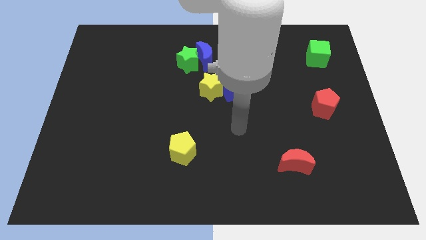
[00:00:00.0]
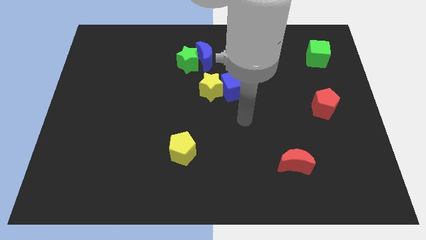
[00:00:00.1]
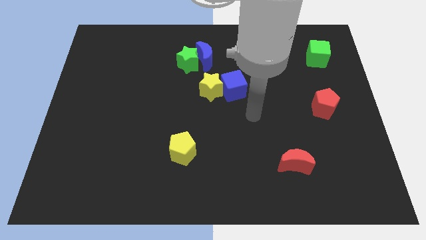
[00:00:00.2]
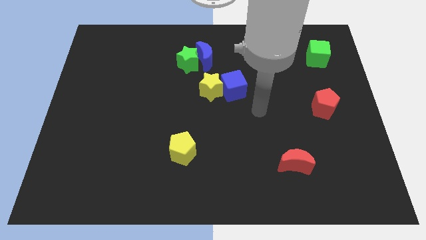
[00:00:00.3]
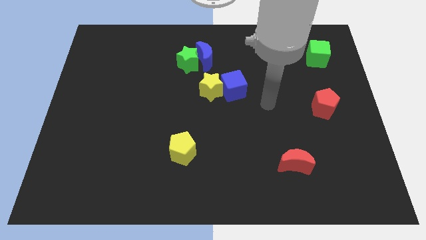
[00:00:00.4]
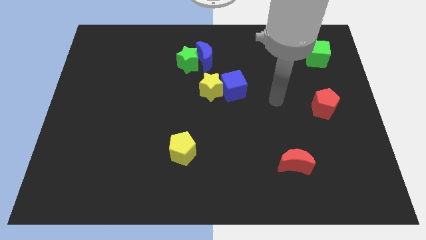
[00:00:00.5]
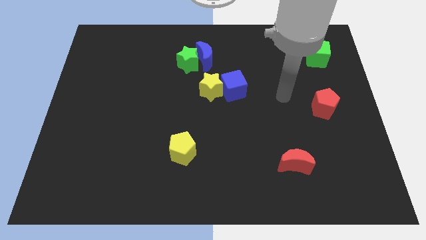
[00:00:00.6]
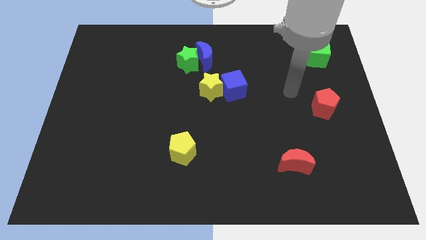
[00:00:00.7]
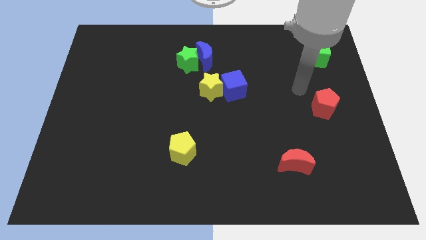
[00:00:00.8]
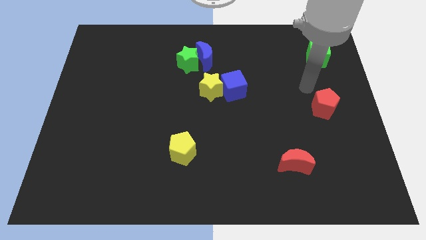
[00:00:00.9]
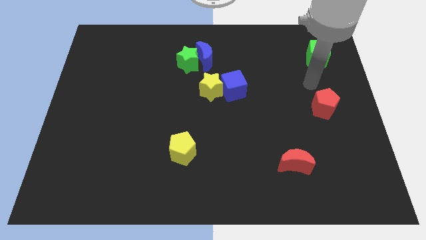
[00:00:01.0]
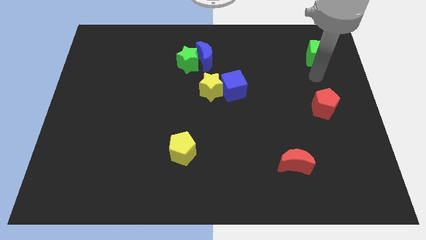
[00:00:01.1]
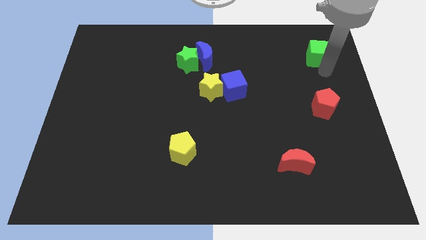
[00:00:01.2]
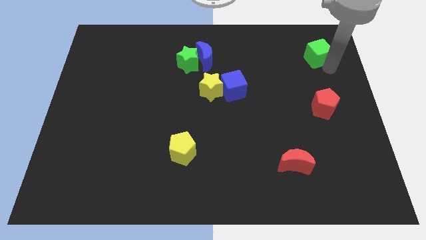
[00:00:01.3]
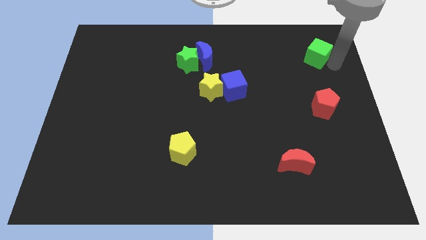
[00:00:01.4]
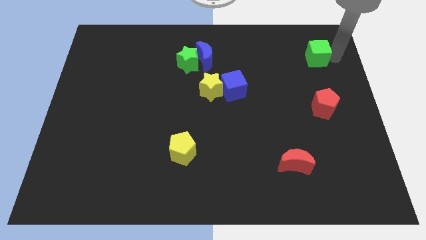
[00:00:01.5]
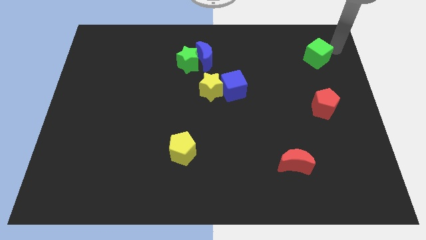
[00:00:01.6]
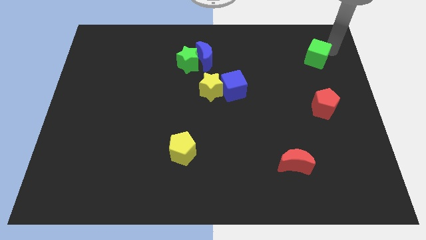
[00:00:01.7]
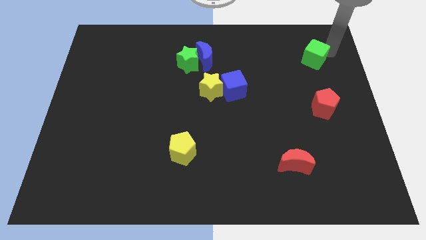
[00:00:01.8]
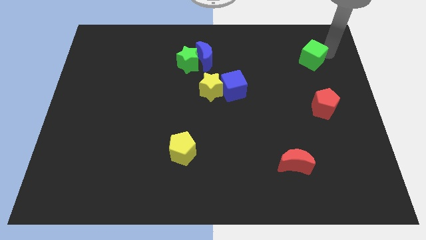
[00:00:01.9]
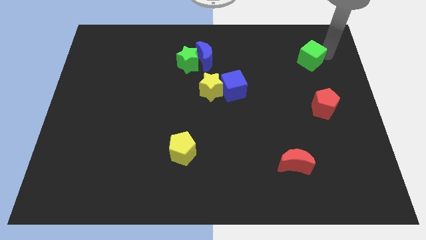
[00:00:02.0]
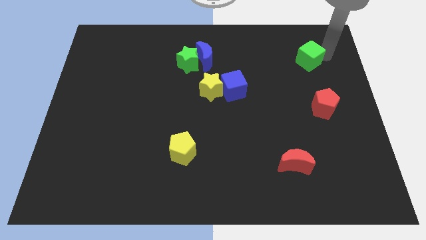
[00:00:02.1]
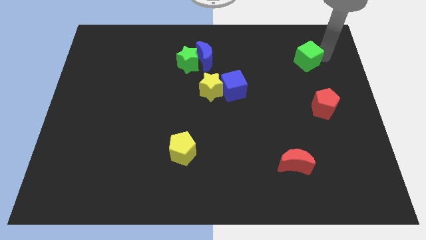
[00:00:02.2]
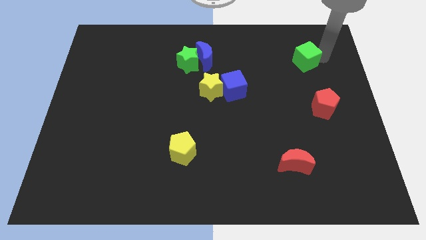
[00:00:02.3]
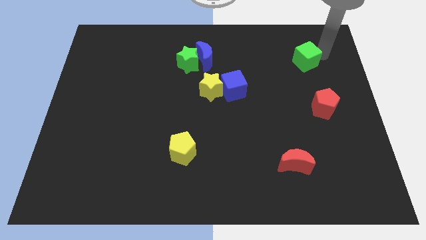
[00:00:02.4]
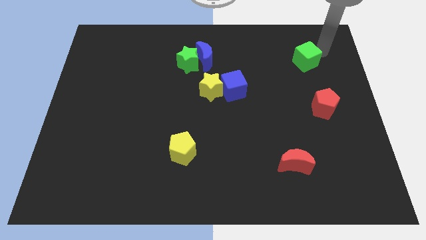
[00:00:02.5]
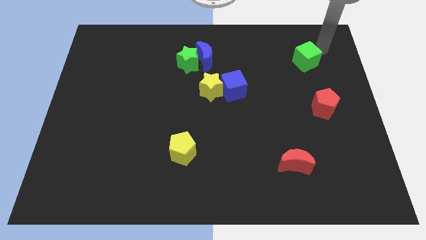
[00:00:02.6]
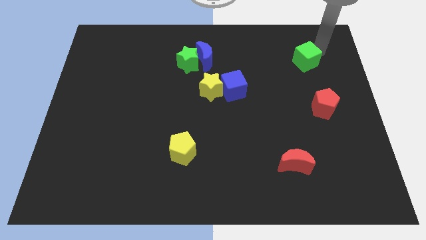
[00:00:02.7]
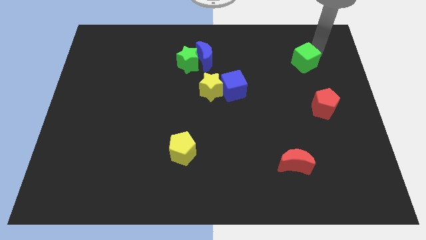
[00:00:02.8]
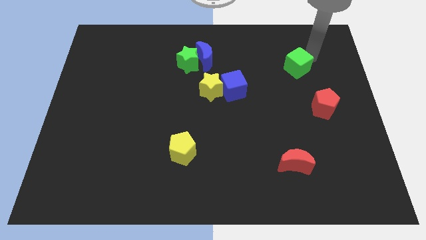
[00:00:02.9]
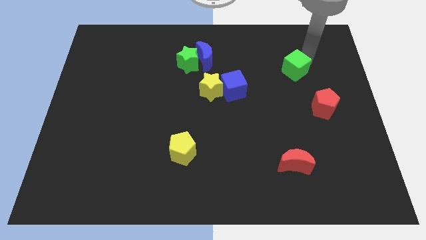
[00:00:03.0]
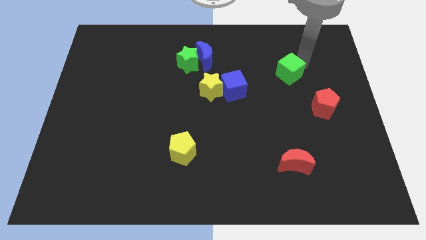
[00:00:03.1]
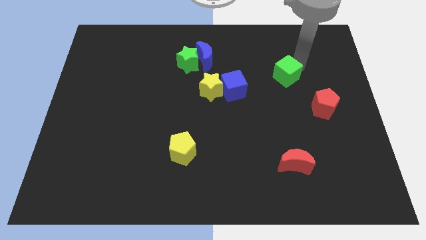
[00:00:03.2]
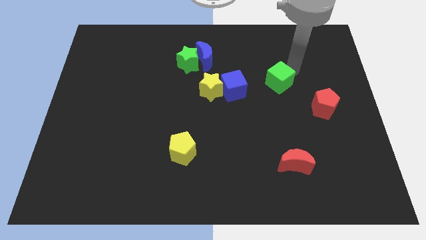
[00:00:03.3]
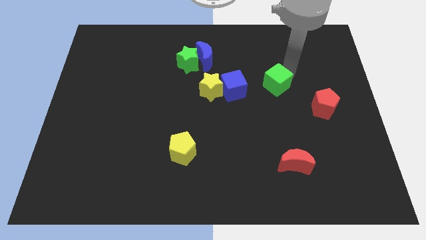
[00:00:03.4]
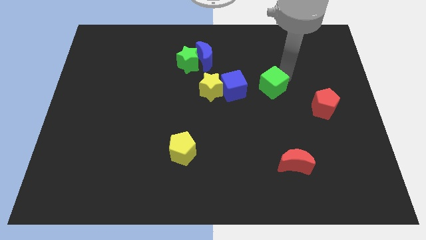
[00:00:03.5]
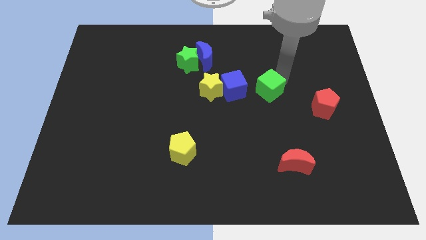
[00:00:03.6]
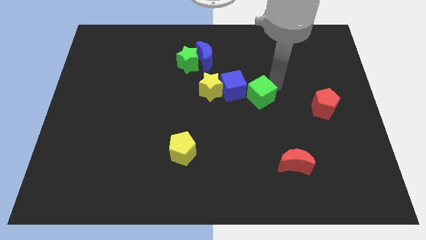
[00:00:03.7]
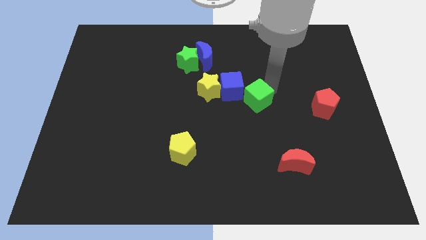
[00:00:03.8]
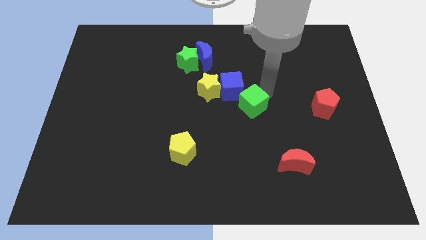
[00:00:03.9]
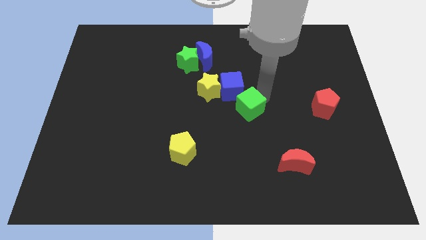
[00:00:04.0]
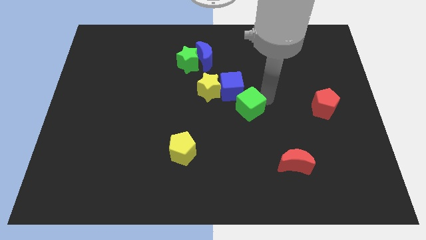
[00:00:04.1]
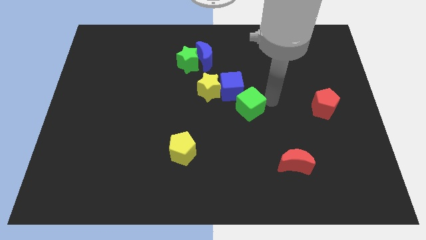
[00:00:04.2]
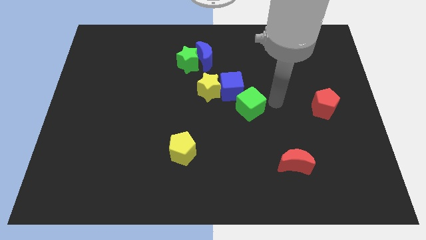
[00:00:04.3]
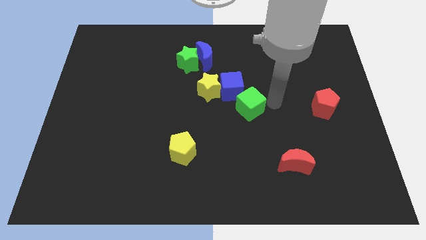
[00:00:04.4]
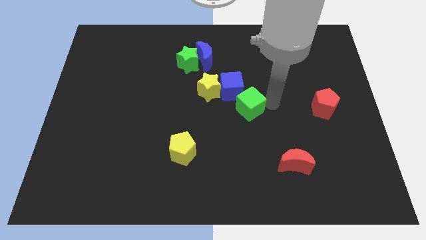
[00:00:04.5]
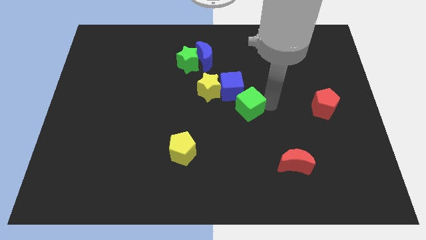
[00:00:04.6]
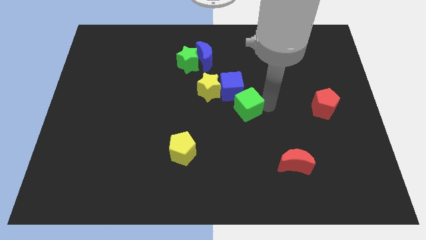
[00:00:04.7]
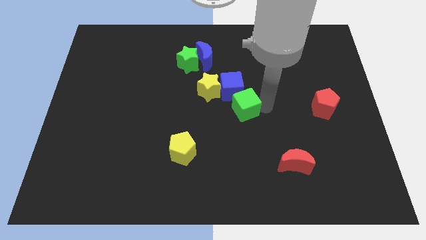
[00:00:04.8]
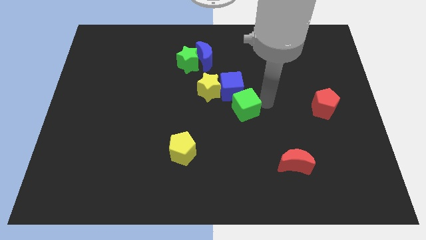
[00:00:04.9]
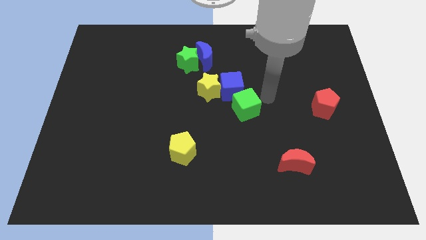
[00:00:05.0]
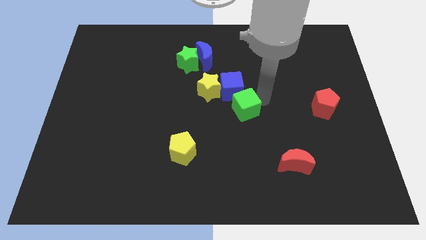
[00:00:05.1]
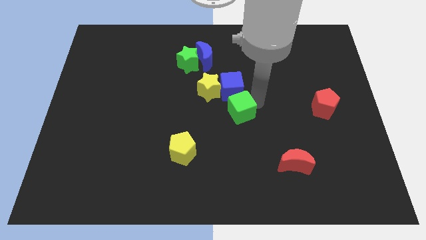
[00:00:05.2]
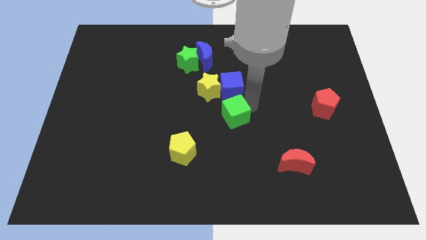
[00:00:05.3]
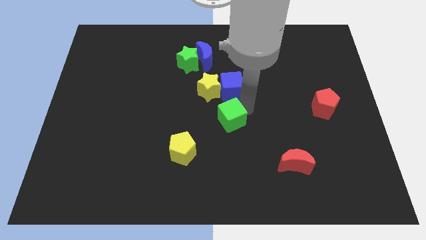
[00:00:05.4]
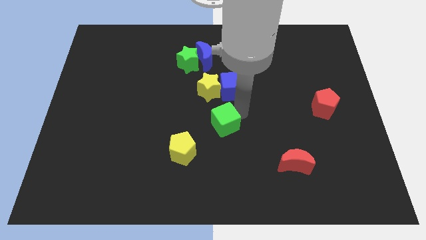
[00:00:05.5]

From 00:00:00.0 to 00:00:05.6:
push the green cube diagonally up and to the right of the yellow pentagon
